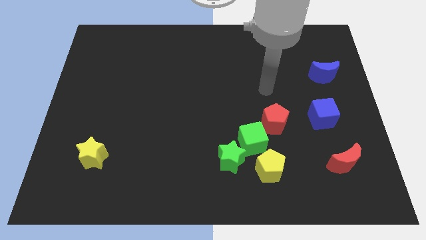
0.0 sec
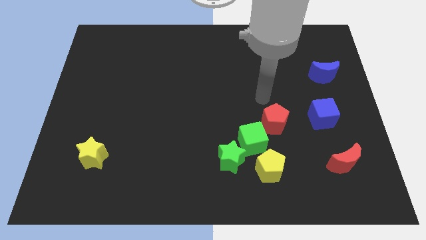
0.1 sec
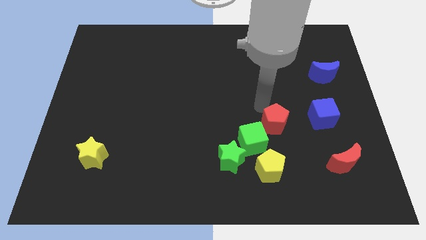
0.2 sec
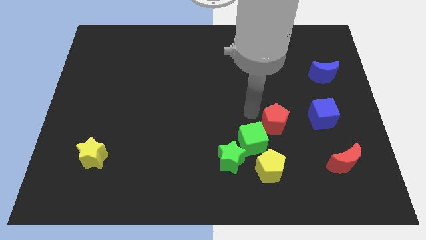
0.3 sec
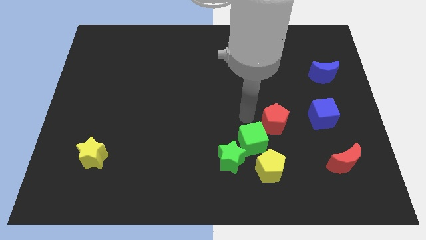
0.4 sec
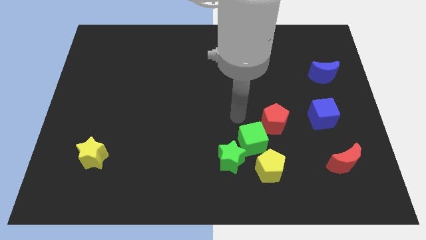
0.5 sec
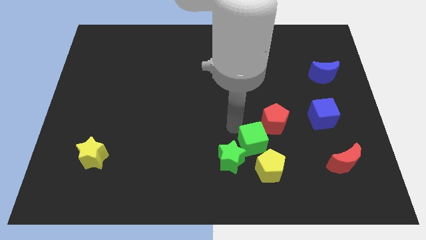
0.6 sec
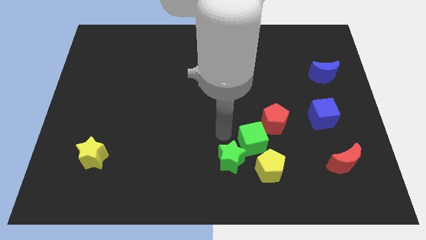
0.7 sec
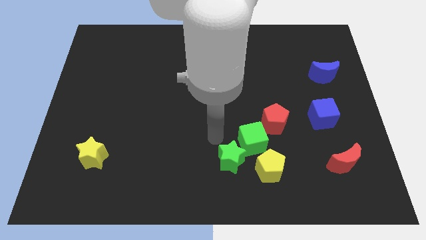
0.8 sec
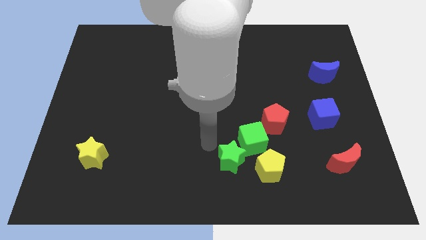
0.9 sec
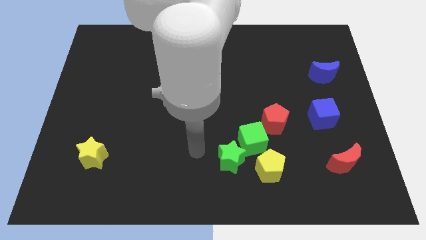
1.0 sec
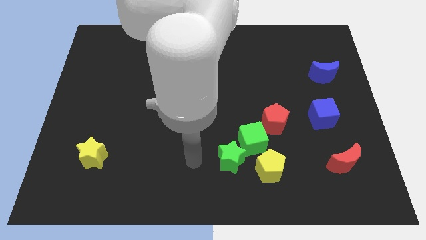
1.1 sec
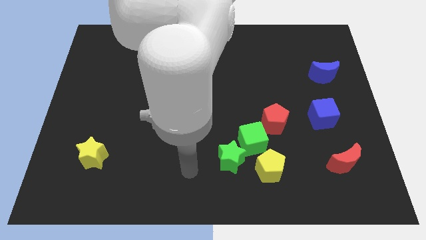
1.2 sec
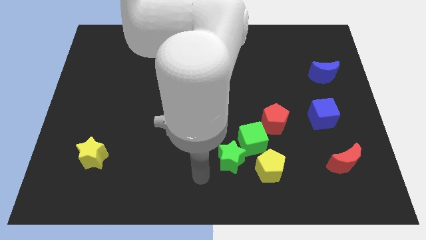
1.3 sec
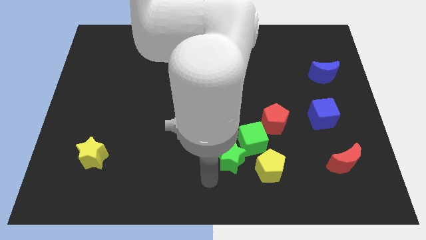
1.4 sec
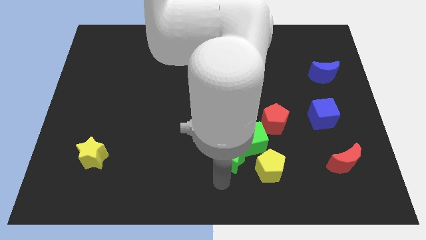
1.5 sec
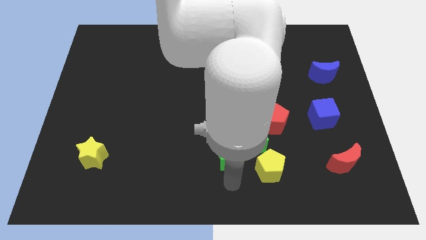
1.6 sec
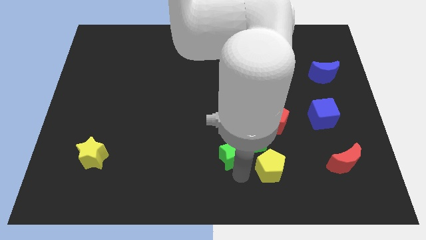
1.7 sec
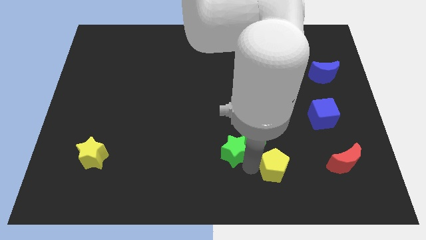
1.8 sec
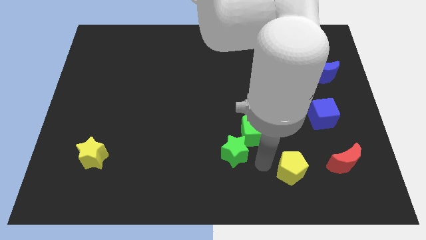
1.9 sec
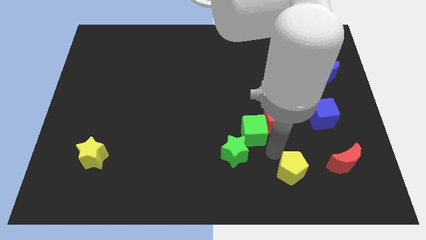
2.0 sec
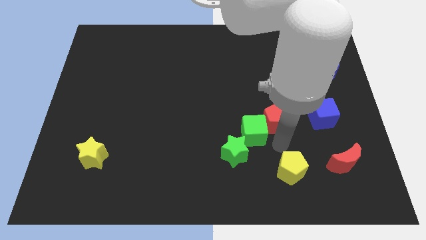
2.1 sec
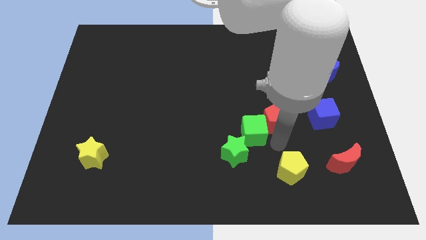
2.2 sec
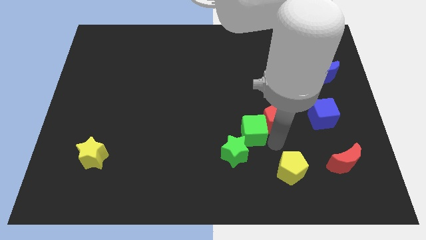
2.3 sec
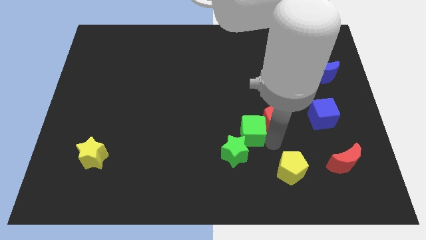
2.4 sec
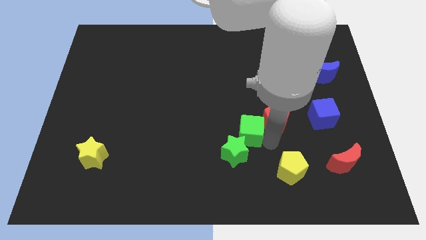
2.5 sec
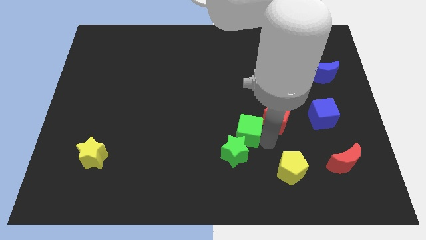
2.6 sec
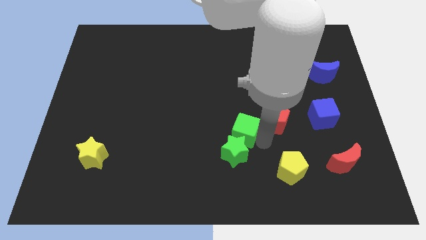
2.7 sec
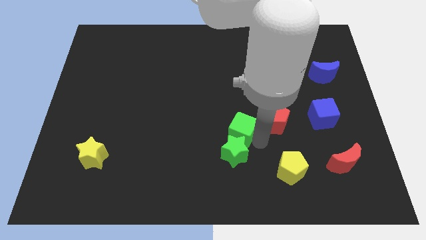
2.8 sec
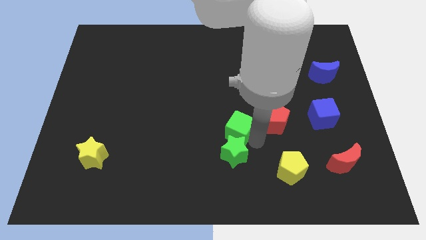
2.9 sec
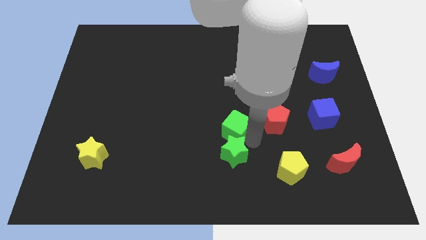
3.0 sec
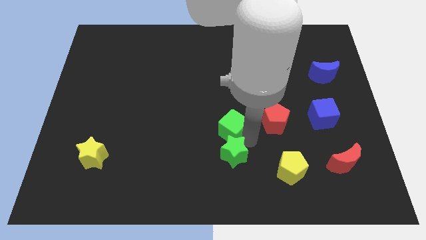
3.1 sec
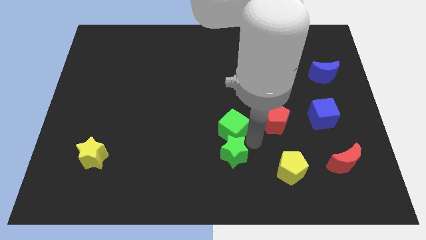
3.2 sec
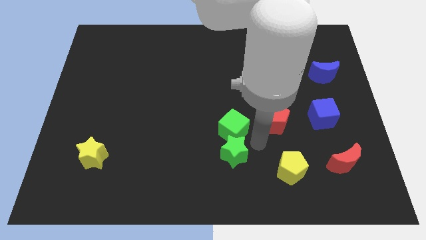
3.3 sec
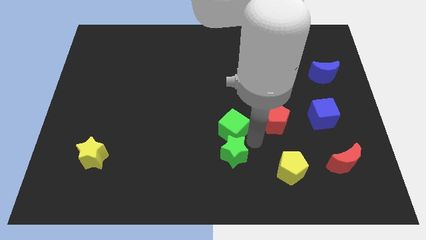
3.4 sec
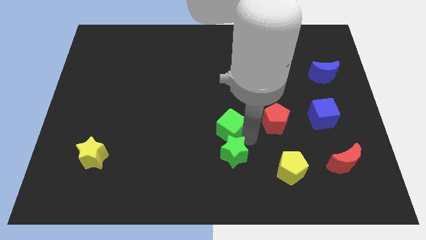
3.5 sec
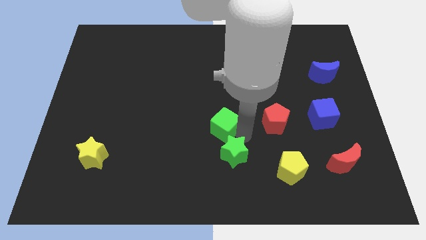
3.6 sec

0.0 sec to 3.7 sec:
move the green cube away from the group

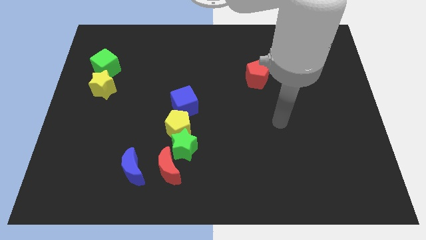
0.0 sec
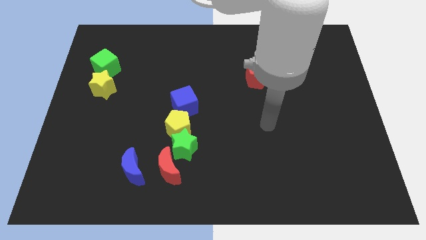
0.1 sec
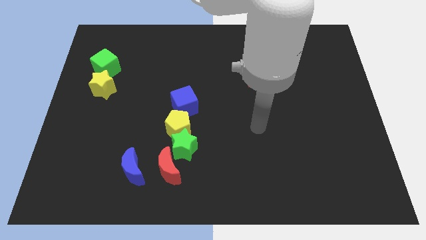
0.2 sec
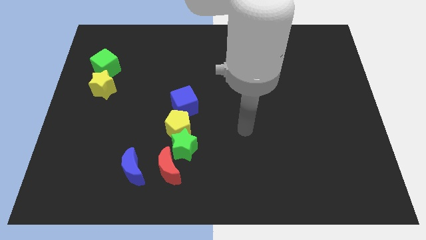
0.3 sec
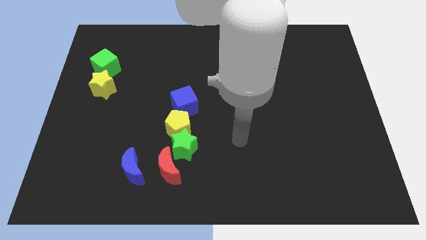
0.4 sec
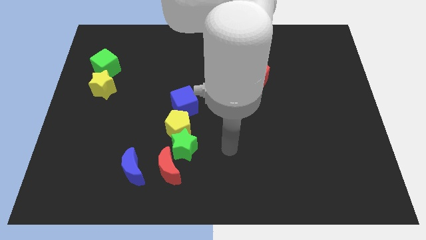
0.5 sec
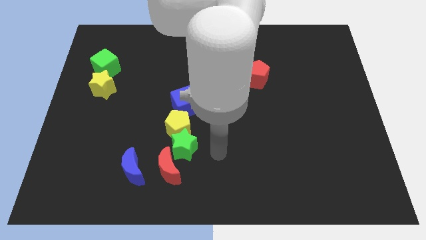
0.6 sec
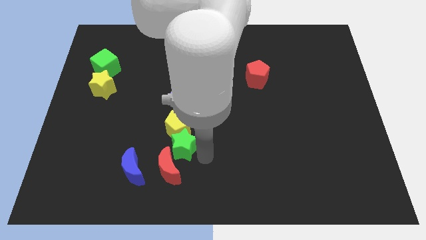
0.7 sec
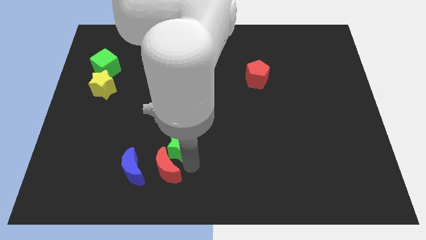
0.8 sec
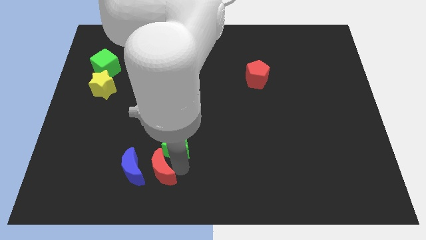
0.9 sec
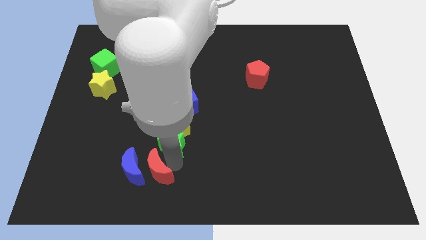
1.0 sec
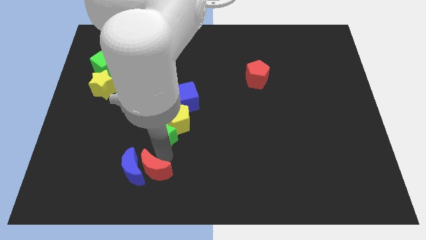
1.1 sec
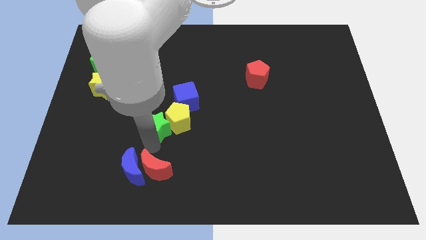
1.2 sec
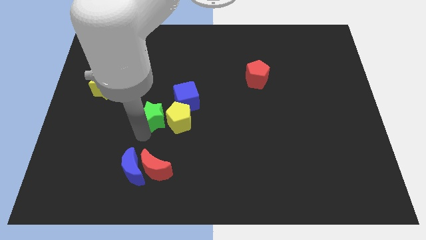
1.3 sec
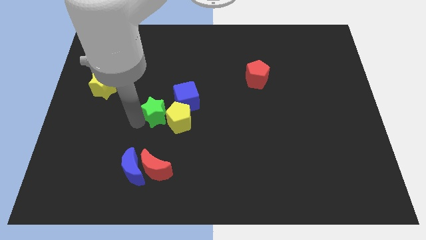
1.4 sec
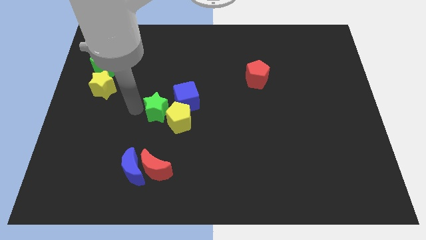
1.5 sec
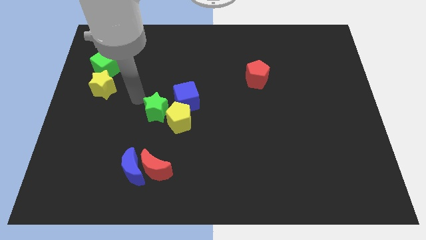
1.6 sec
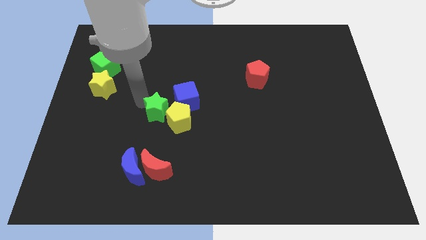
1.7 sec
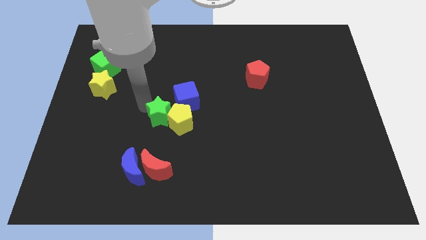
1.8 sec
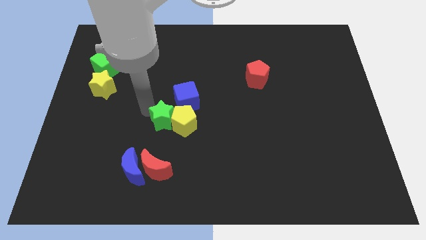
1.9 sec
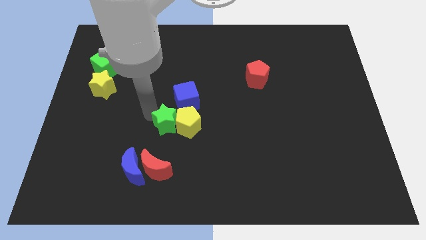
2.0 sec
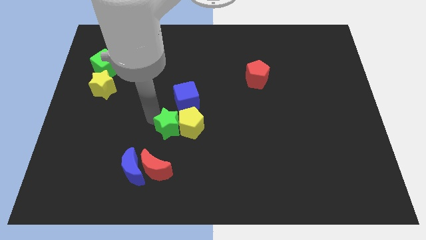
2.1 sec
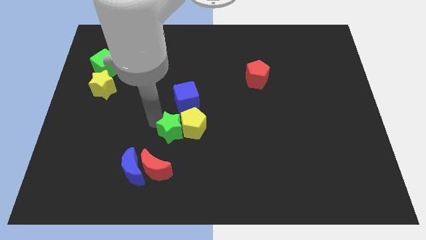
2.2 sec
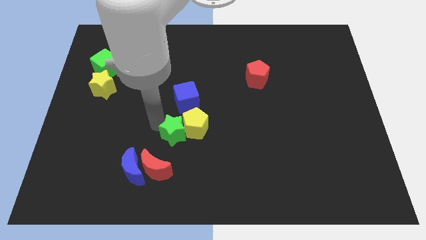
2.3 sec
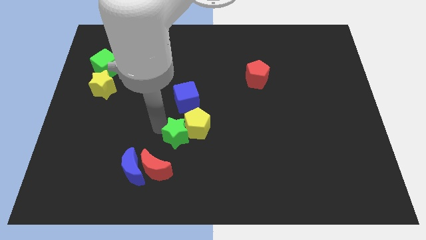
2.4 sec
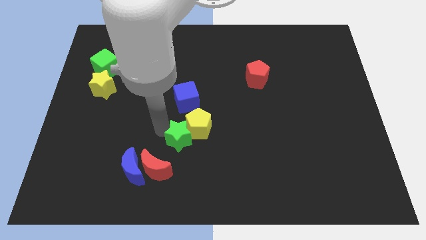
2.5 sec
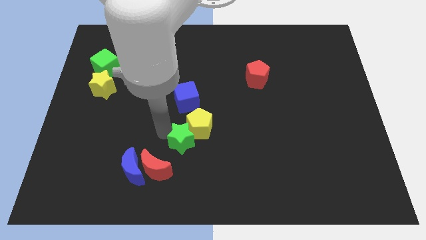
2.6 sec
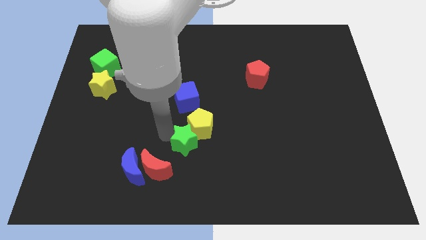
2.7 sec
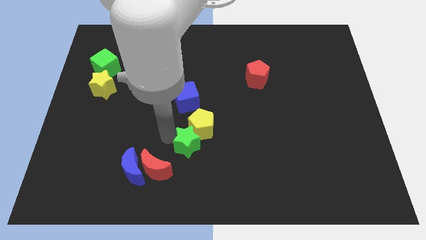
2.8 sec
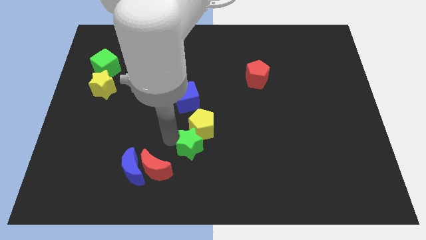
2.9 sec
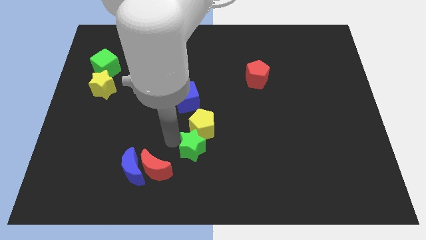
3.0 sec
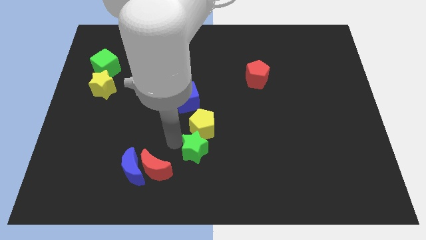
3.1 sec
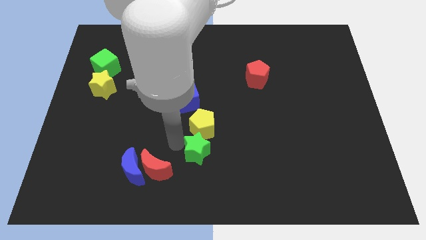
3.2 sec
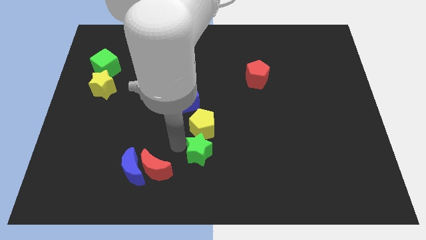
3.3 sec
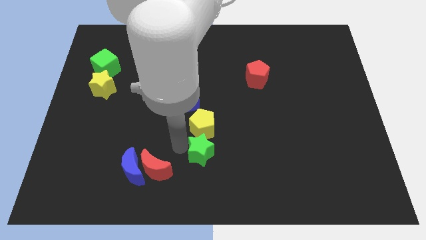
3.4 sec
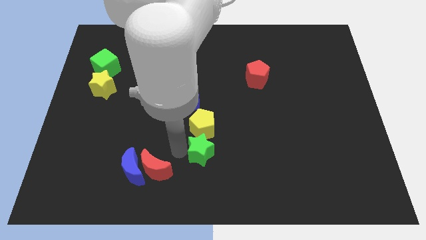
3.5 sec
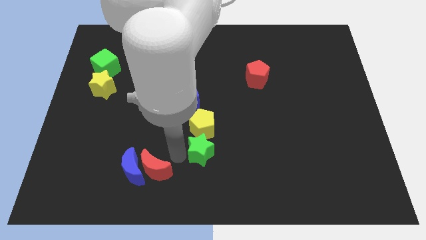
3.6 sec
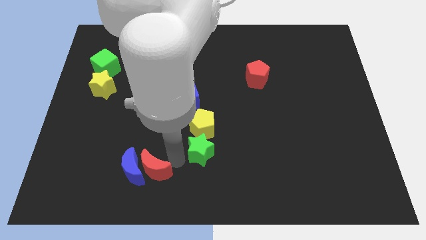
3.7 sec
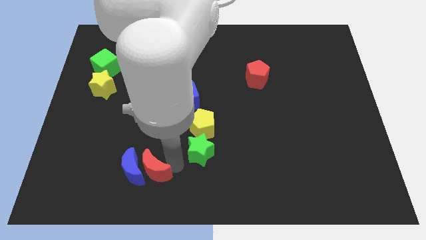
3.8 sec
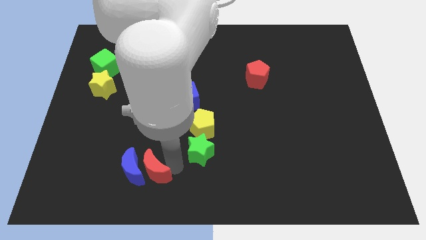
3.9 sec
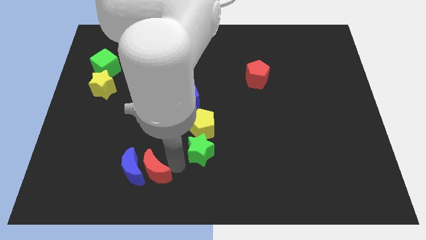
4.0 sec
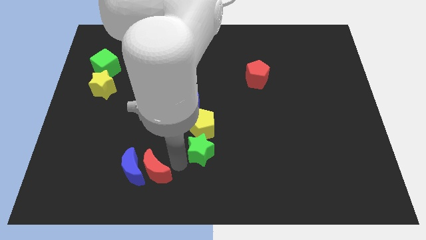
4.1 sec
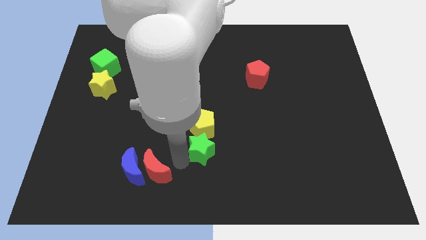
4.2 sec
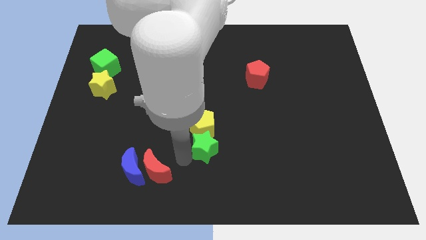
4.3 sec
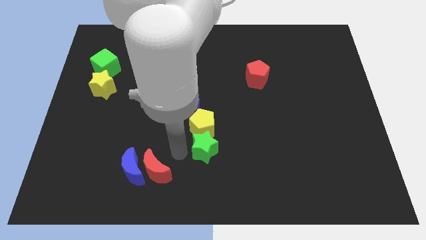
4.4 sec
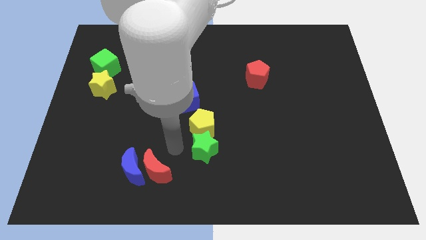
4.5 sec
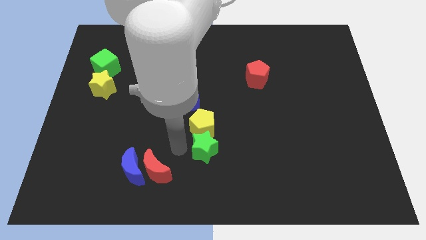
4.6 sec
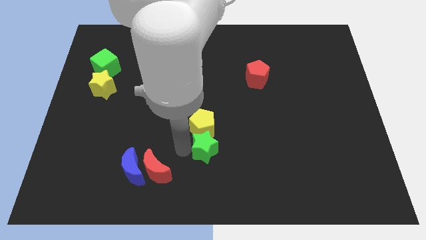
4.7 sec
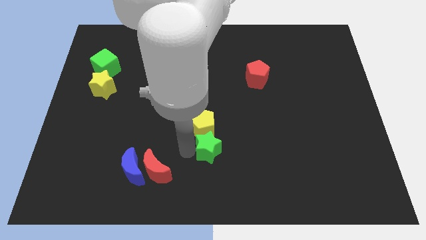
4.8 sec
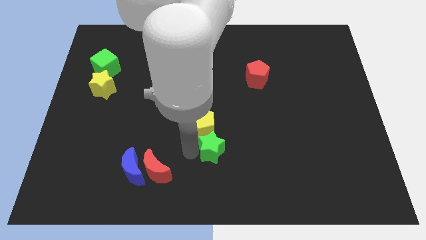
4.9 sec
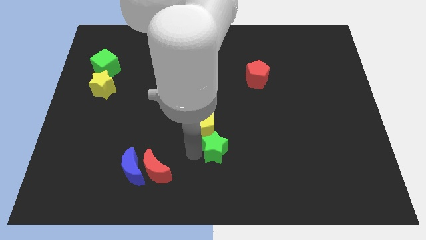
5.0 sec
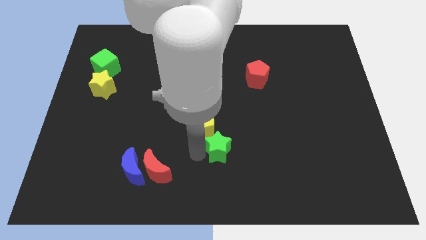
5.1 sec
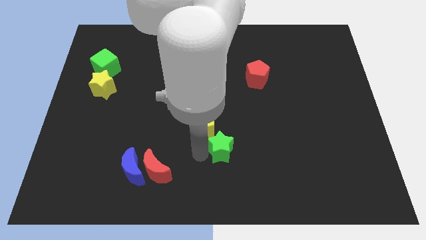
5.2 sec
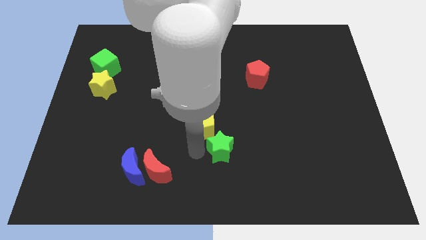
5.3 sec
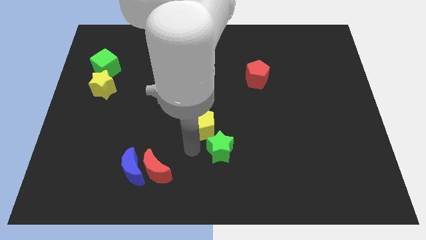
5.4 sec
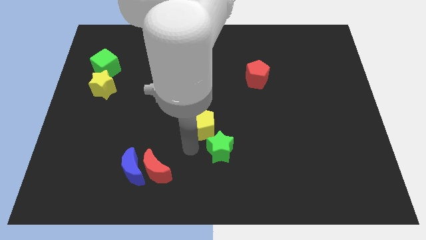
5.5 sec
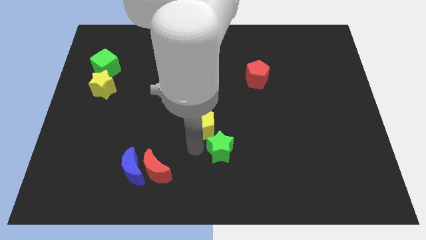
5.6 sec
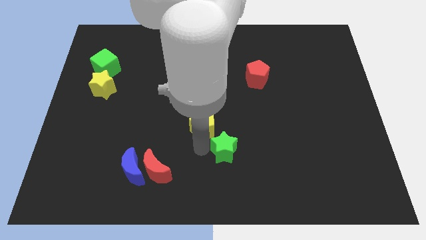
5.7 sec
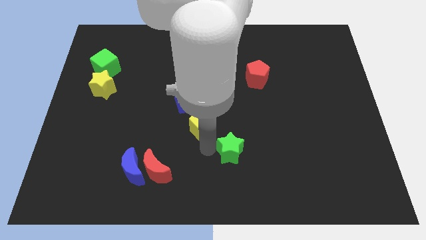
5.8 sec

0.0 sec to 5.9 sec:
pull the green star apart from the yellow pentagon and red moon

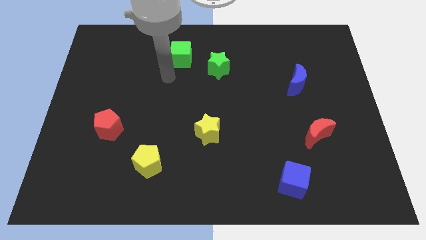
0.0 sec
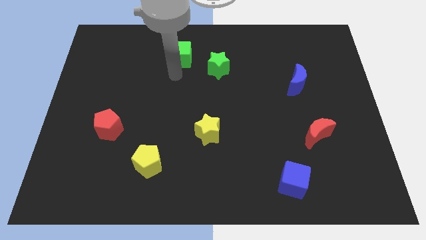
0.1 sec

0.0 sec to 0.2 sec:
separate the green cube from the green star
